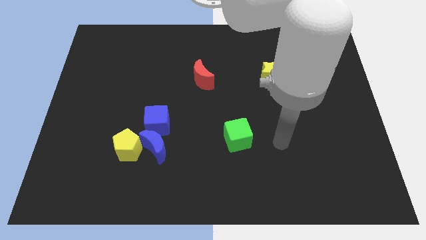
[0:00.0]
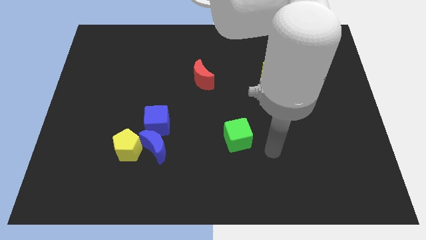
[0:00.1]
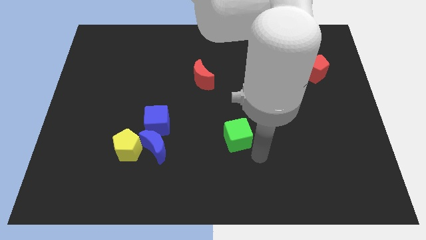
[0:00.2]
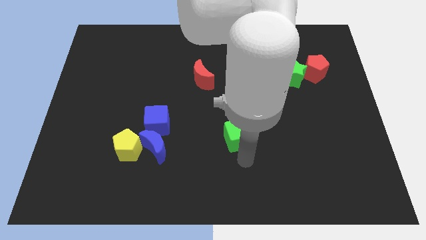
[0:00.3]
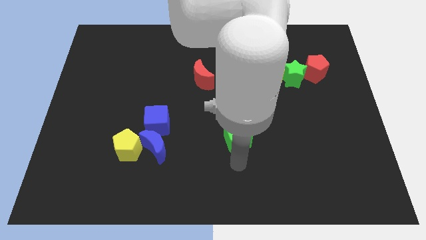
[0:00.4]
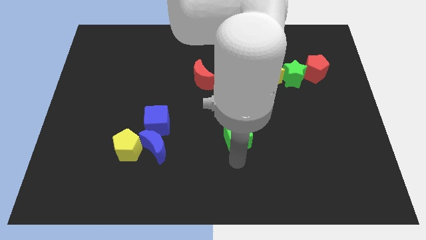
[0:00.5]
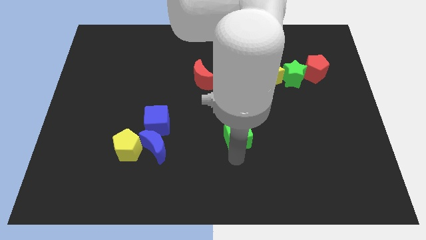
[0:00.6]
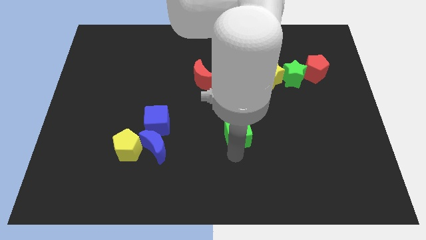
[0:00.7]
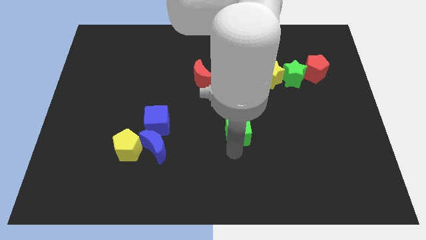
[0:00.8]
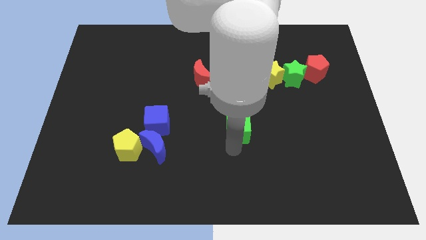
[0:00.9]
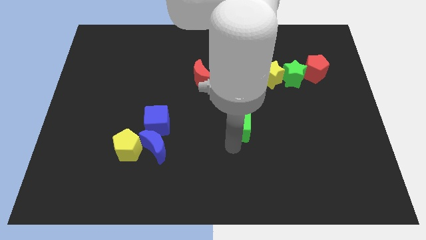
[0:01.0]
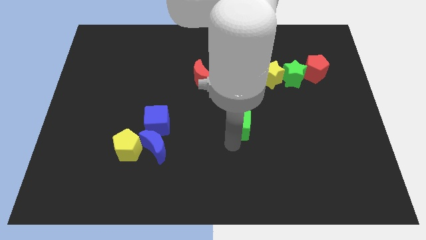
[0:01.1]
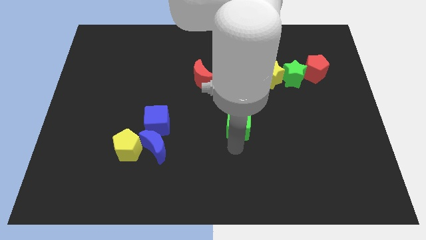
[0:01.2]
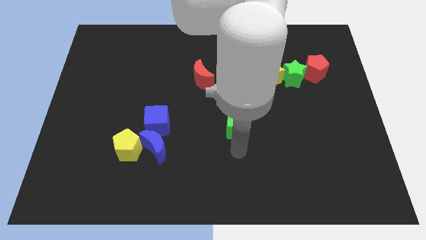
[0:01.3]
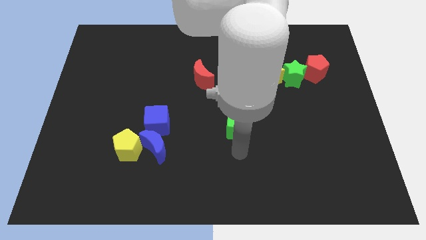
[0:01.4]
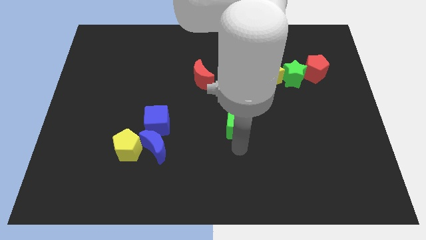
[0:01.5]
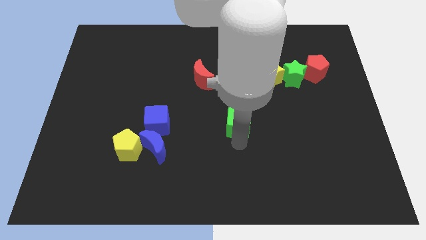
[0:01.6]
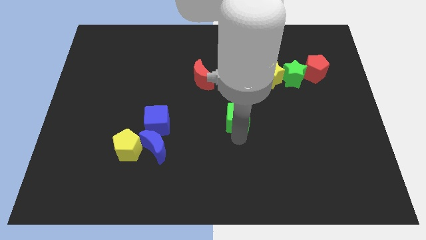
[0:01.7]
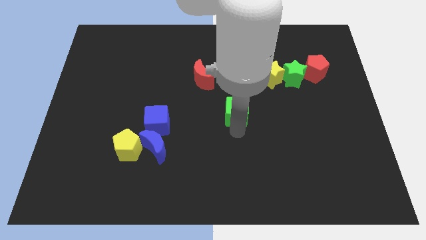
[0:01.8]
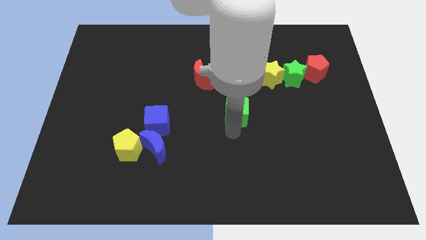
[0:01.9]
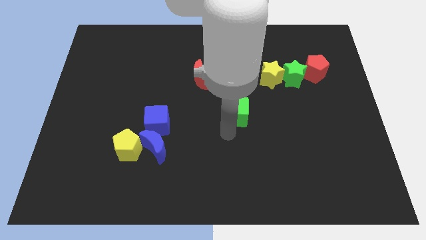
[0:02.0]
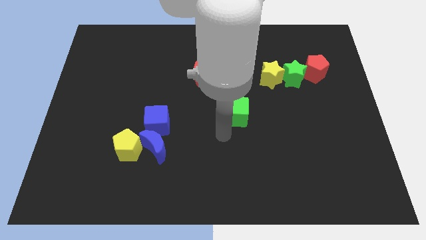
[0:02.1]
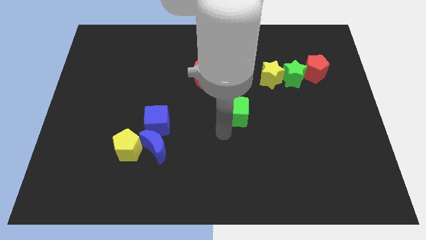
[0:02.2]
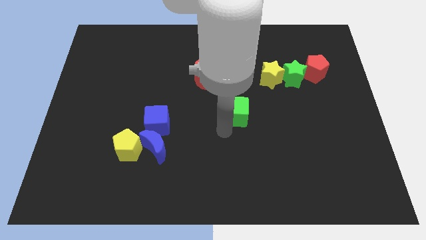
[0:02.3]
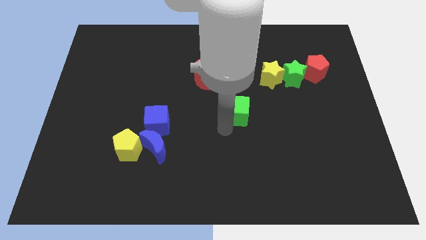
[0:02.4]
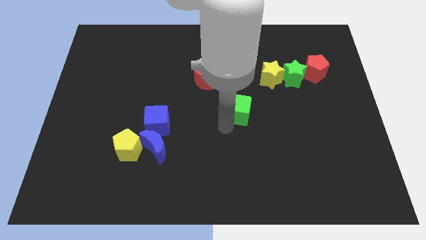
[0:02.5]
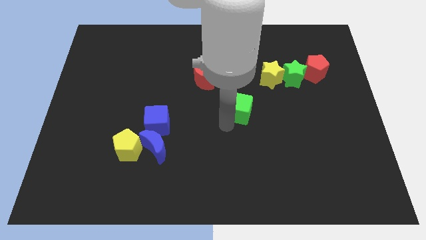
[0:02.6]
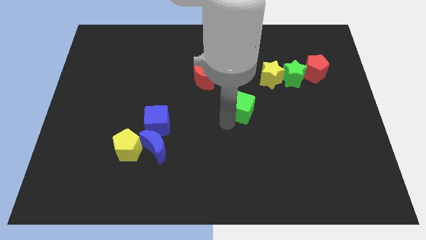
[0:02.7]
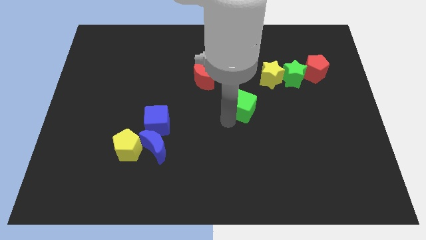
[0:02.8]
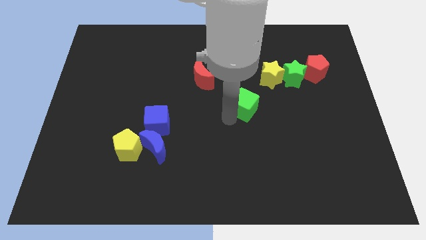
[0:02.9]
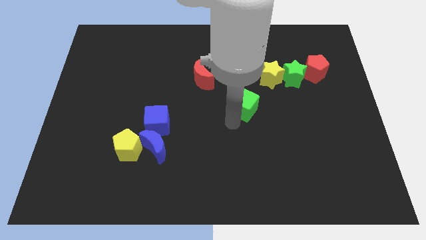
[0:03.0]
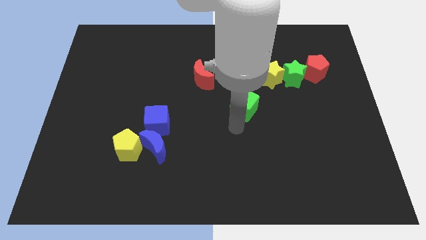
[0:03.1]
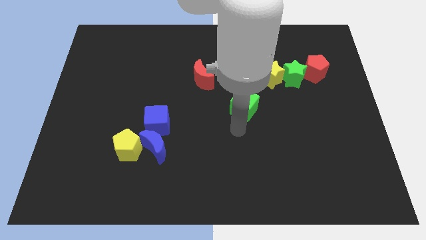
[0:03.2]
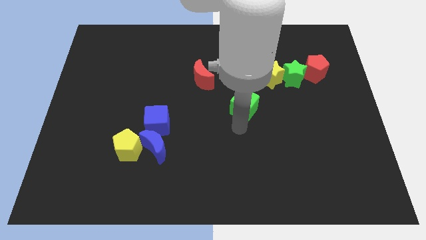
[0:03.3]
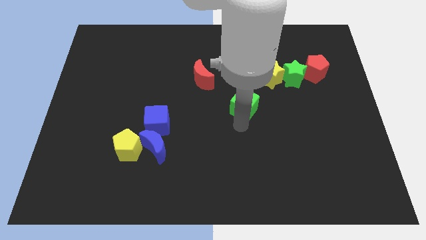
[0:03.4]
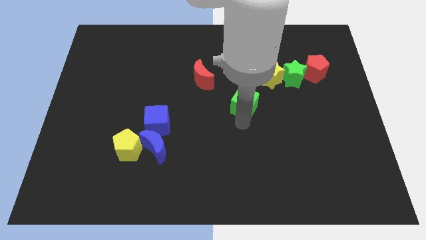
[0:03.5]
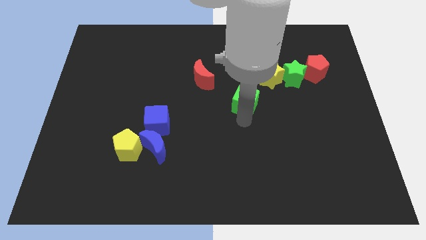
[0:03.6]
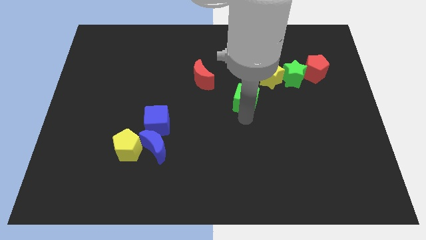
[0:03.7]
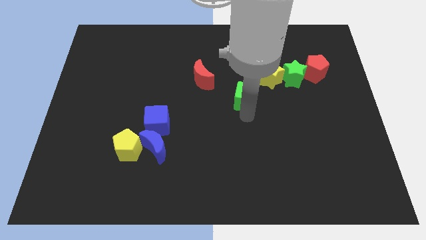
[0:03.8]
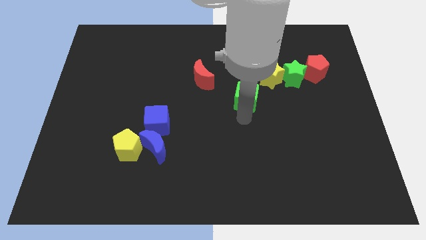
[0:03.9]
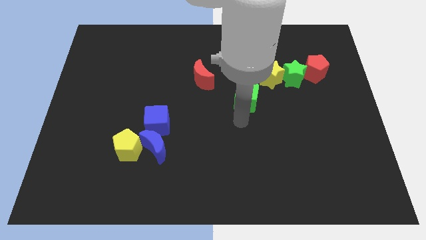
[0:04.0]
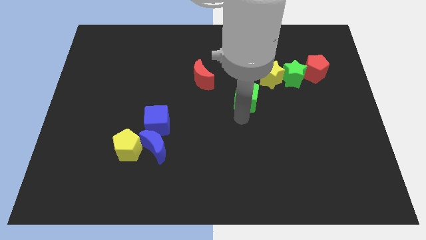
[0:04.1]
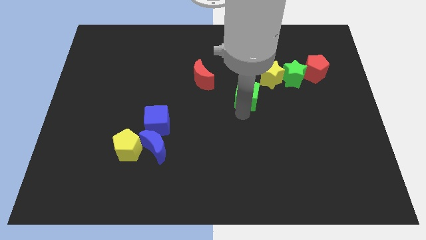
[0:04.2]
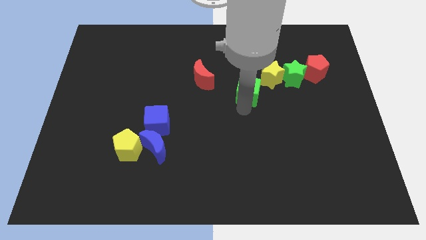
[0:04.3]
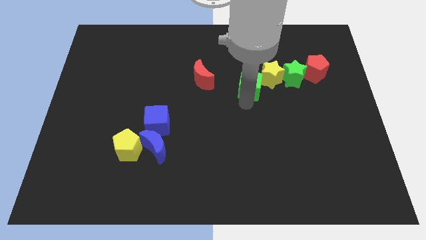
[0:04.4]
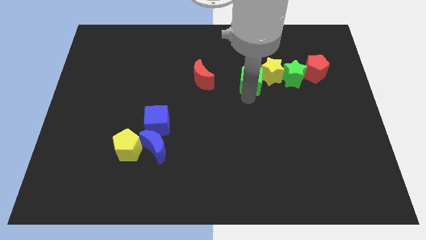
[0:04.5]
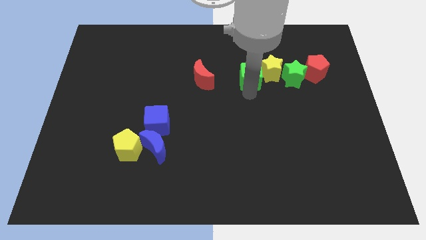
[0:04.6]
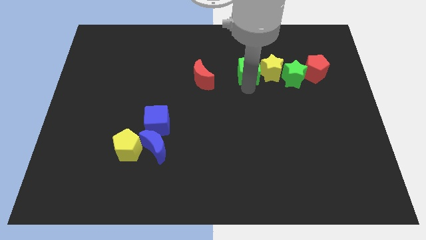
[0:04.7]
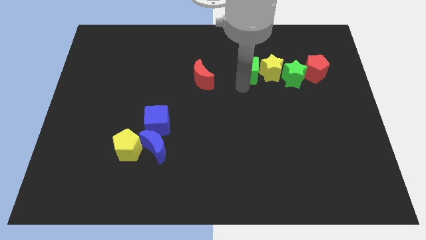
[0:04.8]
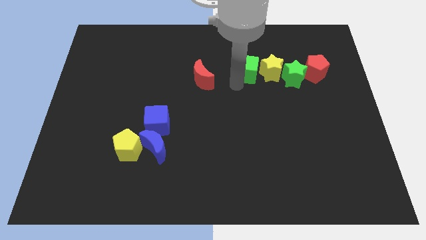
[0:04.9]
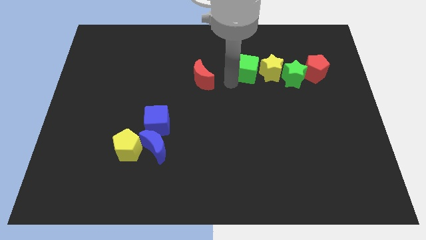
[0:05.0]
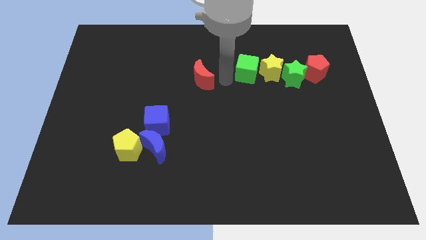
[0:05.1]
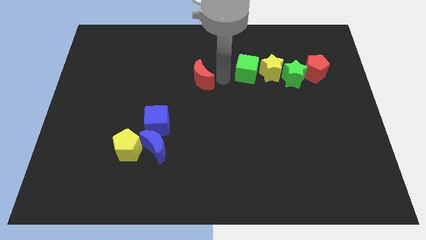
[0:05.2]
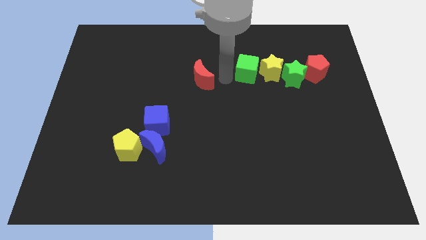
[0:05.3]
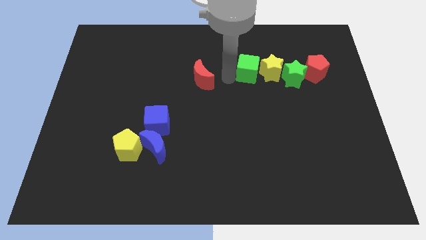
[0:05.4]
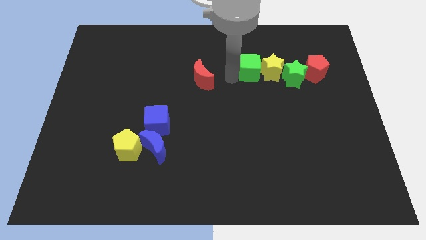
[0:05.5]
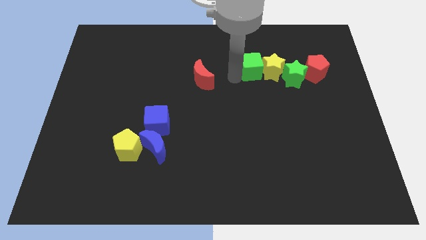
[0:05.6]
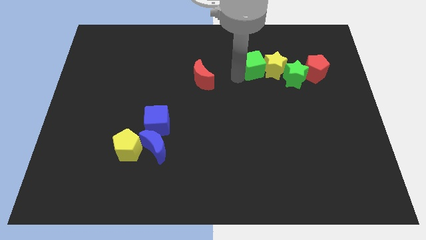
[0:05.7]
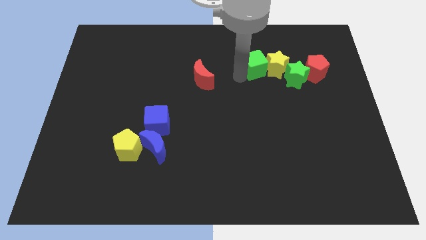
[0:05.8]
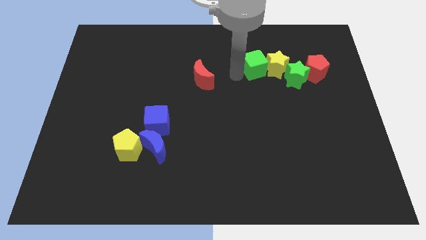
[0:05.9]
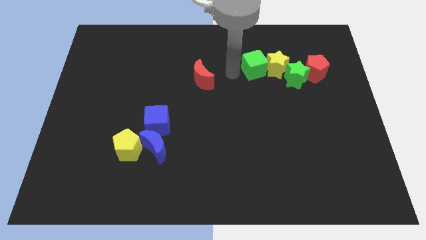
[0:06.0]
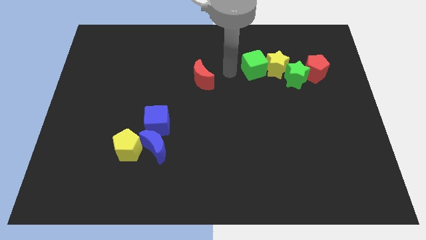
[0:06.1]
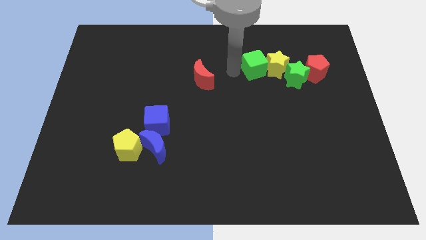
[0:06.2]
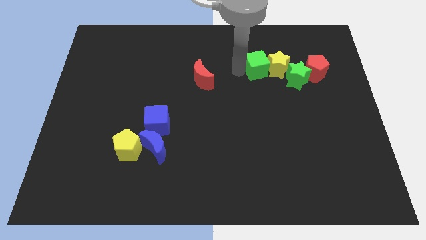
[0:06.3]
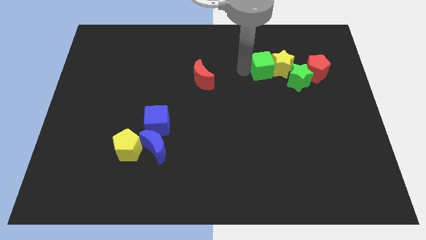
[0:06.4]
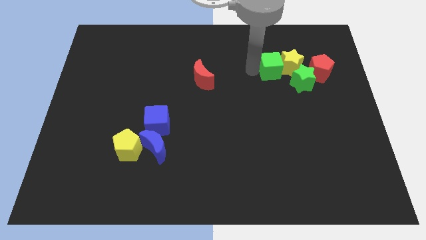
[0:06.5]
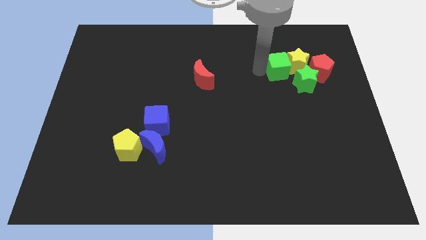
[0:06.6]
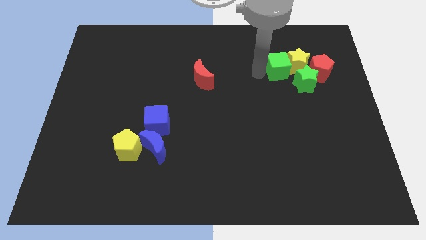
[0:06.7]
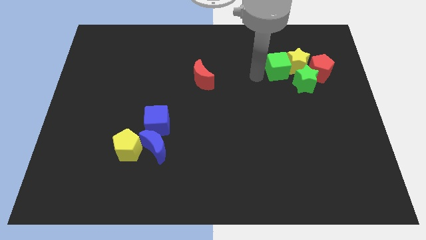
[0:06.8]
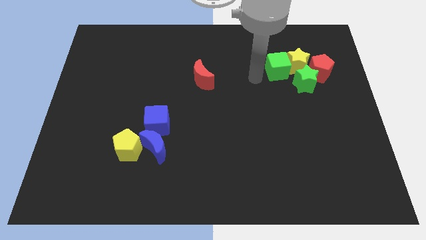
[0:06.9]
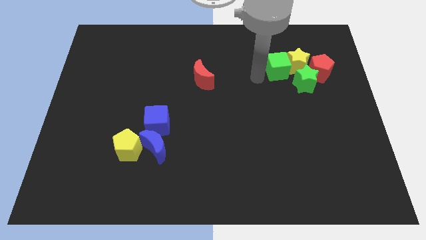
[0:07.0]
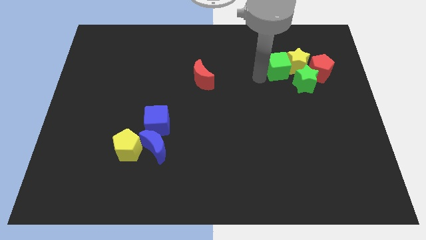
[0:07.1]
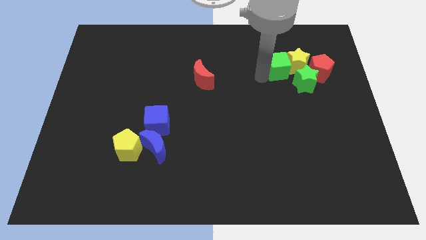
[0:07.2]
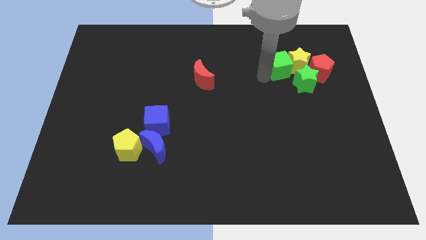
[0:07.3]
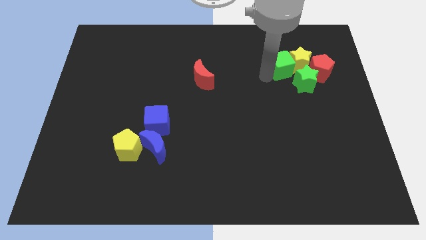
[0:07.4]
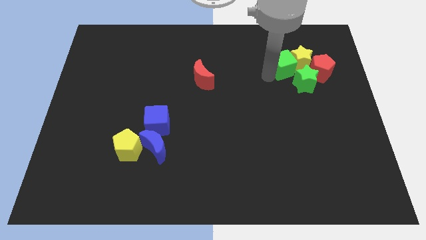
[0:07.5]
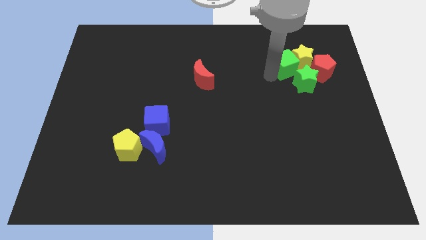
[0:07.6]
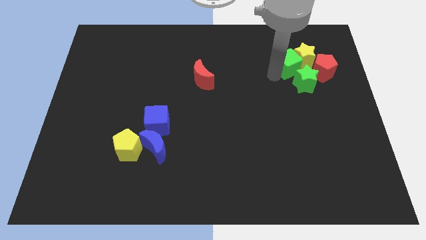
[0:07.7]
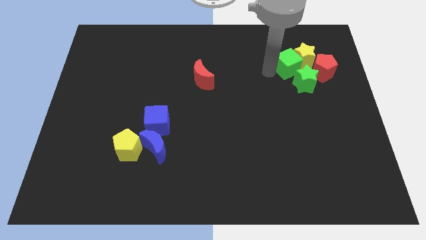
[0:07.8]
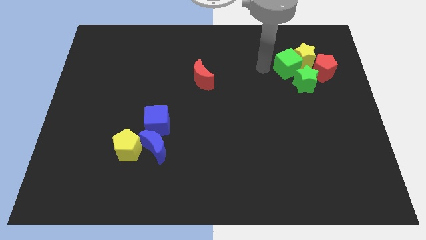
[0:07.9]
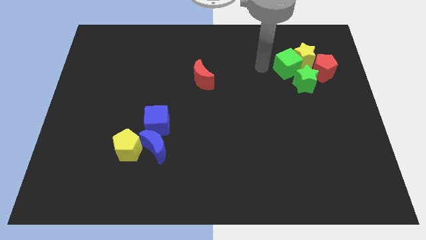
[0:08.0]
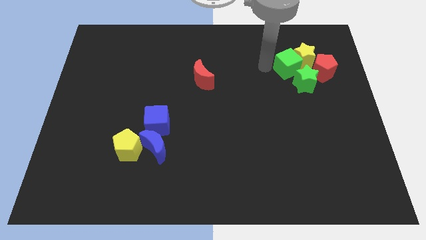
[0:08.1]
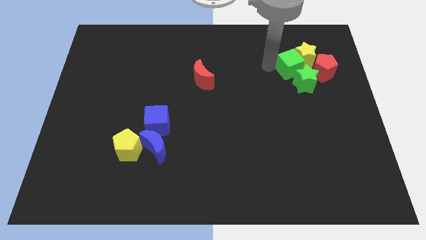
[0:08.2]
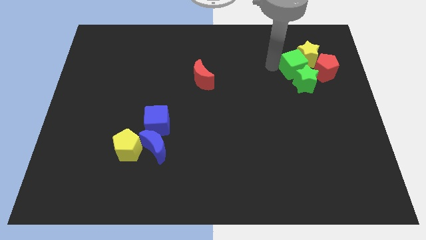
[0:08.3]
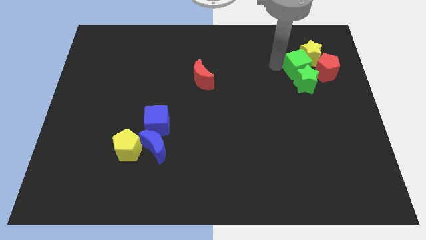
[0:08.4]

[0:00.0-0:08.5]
put the green cube to the top right of the green star
